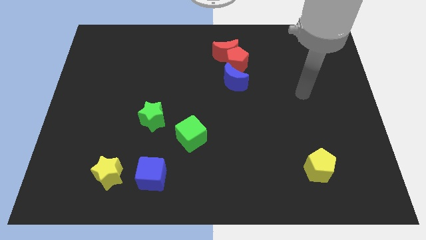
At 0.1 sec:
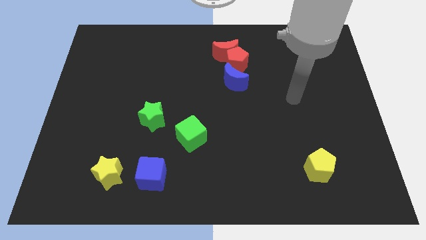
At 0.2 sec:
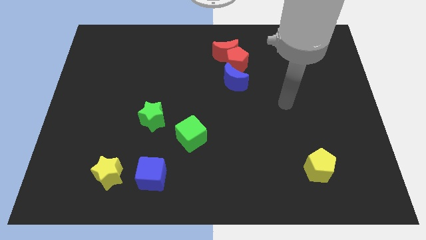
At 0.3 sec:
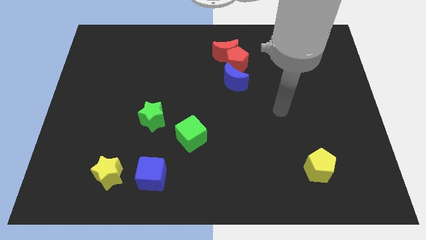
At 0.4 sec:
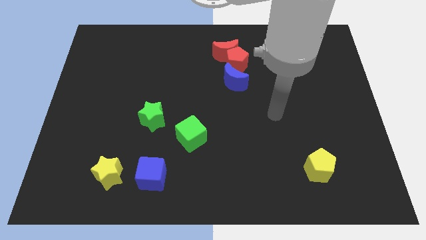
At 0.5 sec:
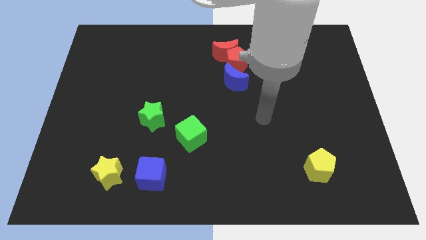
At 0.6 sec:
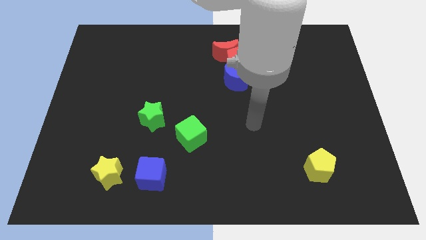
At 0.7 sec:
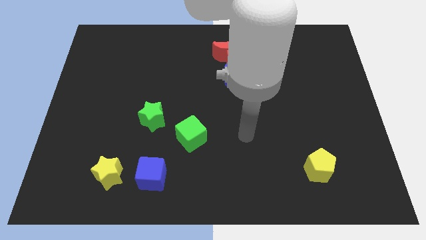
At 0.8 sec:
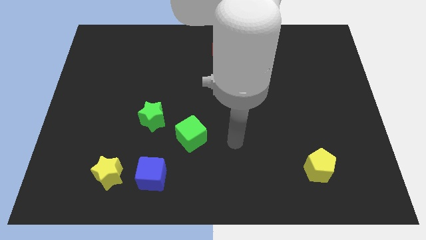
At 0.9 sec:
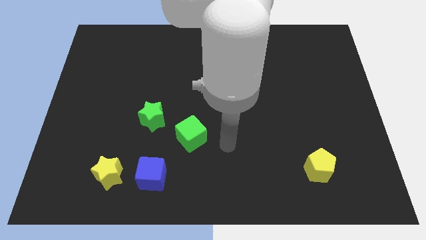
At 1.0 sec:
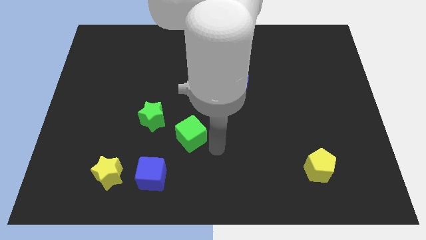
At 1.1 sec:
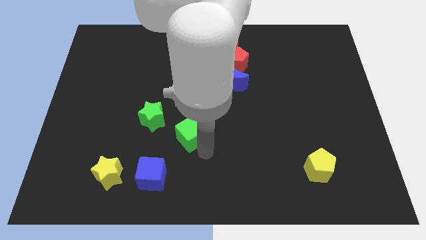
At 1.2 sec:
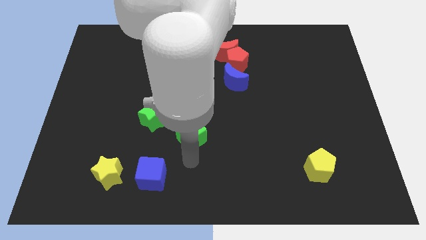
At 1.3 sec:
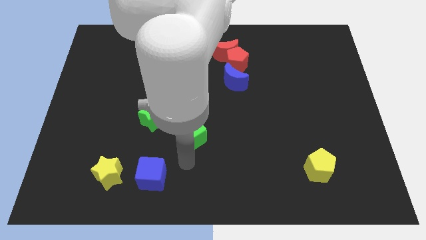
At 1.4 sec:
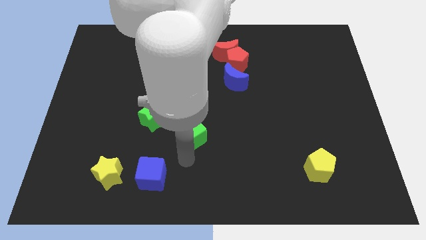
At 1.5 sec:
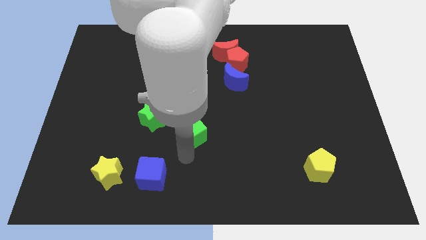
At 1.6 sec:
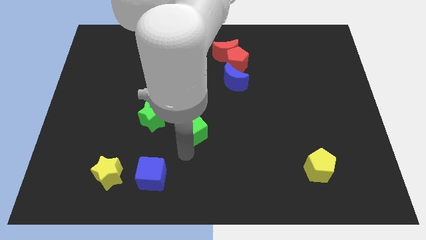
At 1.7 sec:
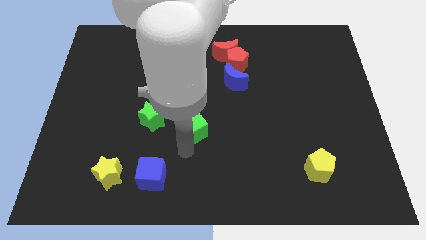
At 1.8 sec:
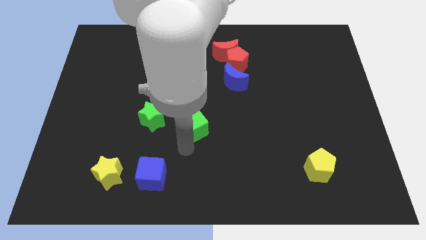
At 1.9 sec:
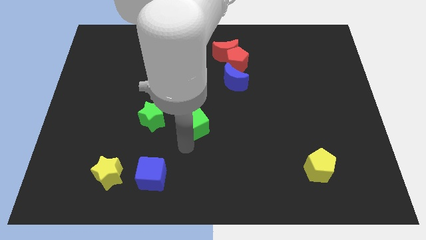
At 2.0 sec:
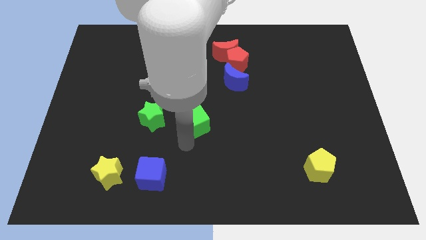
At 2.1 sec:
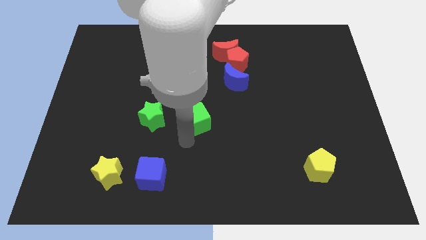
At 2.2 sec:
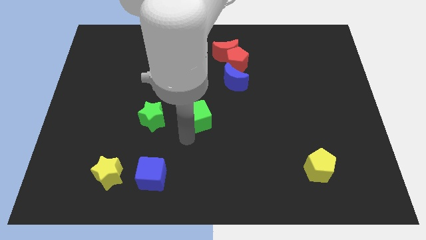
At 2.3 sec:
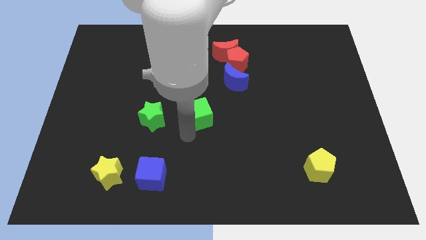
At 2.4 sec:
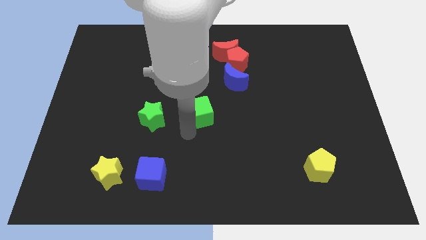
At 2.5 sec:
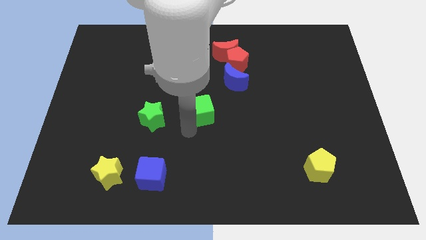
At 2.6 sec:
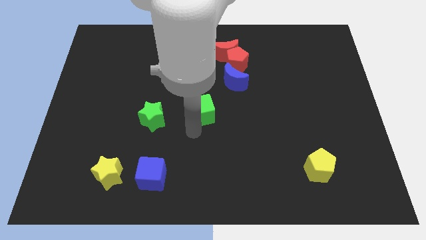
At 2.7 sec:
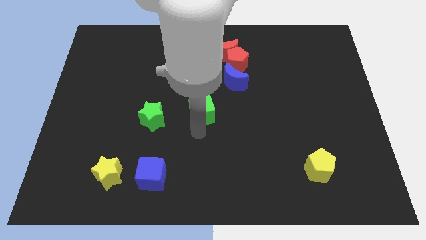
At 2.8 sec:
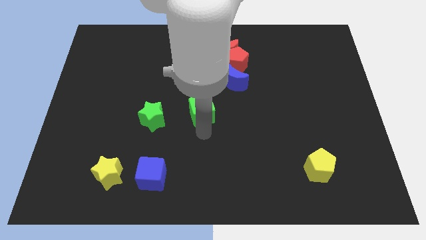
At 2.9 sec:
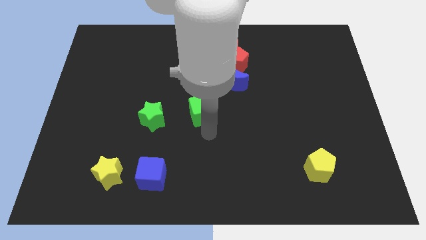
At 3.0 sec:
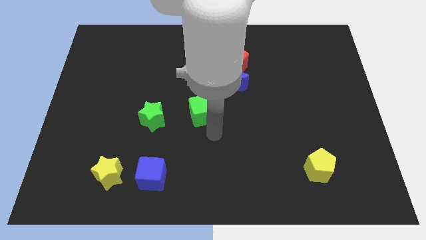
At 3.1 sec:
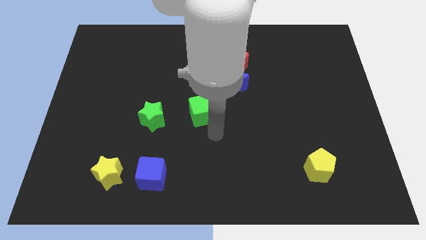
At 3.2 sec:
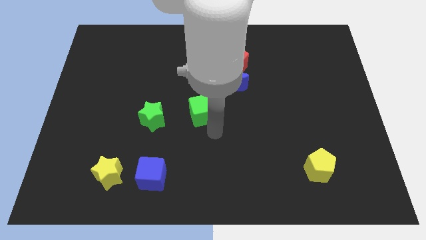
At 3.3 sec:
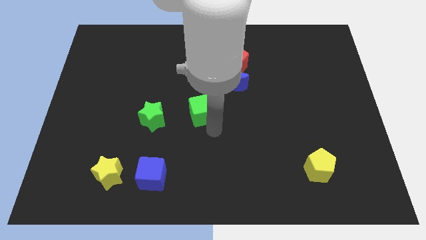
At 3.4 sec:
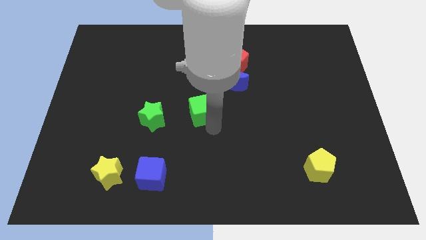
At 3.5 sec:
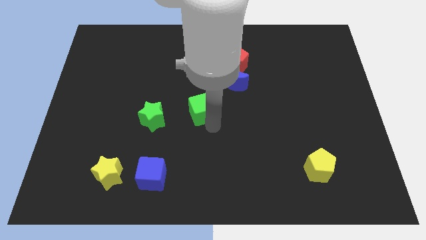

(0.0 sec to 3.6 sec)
move the green cube up slightly

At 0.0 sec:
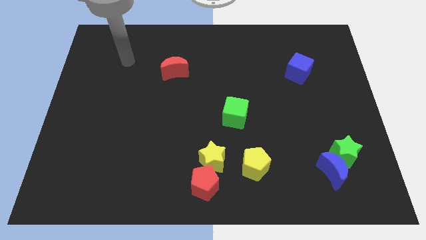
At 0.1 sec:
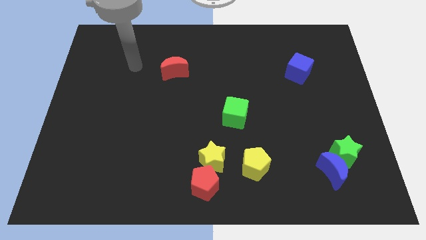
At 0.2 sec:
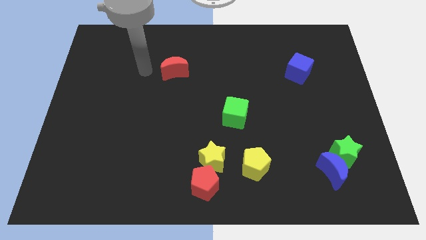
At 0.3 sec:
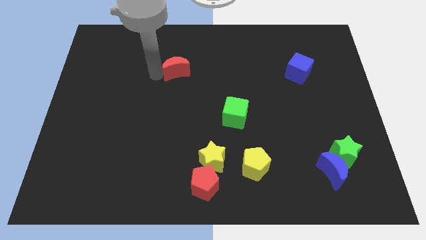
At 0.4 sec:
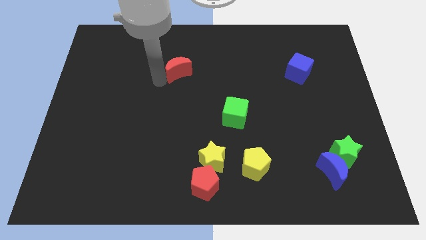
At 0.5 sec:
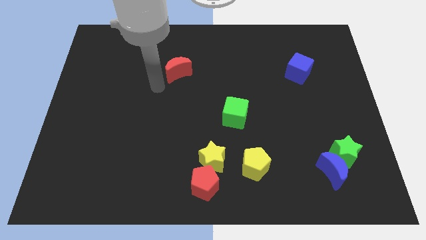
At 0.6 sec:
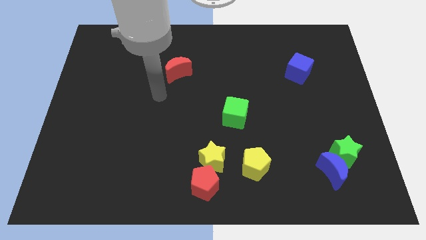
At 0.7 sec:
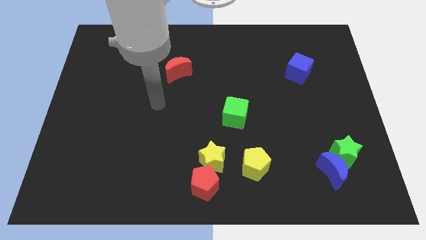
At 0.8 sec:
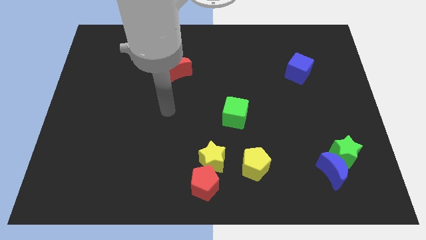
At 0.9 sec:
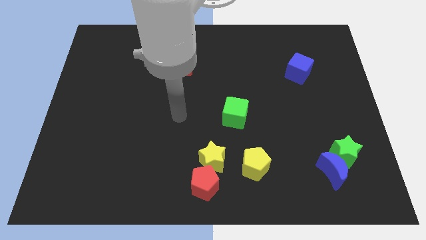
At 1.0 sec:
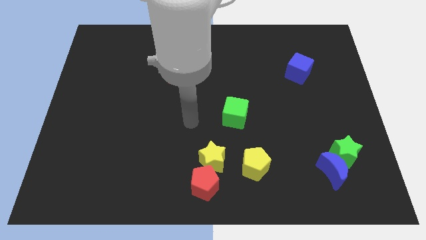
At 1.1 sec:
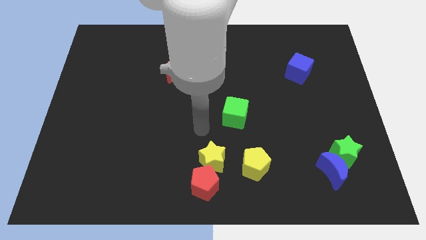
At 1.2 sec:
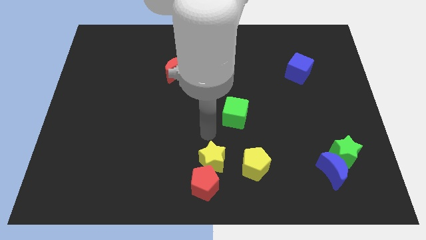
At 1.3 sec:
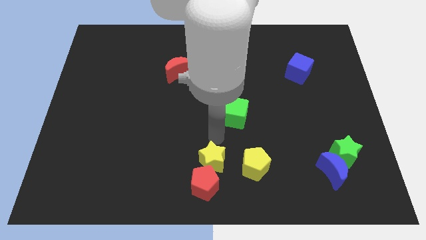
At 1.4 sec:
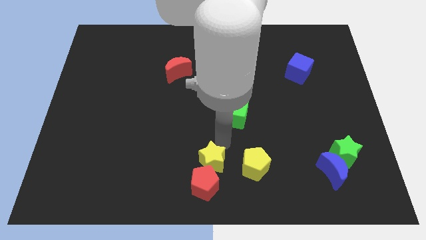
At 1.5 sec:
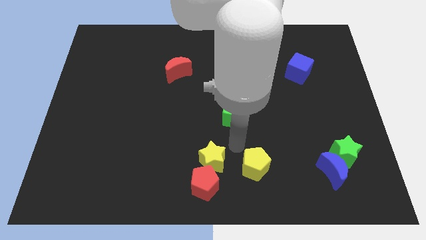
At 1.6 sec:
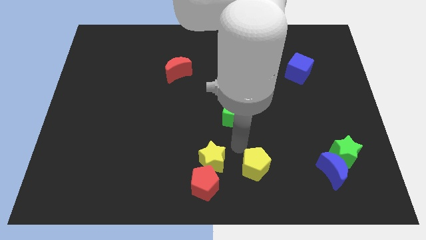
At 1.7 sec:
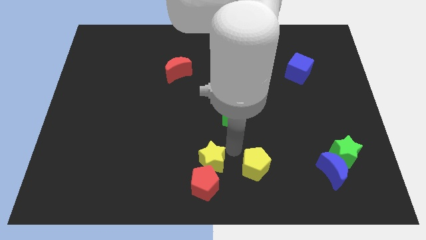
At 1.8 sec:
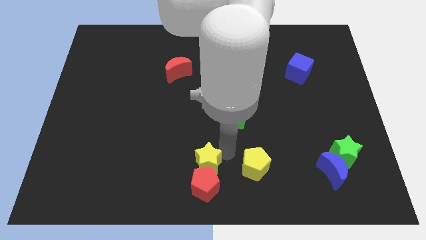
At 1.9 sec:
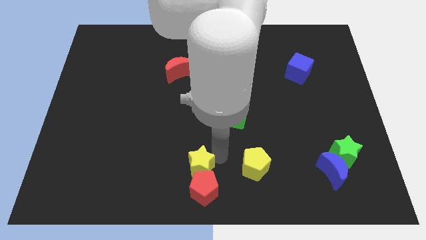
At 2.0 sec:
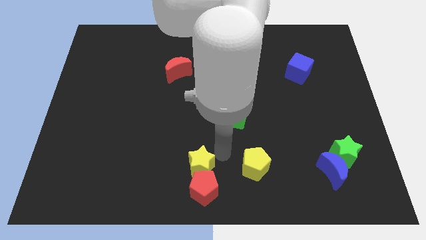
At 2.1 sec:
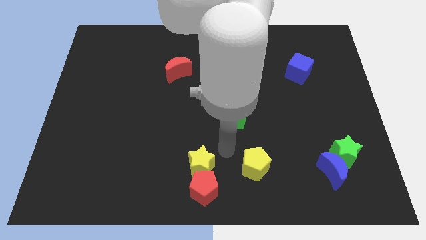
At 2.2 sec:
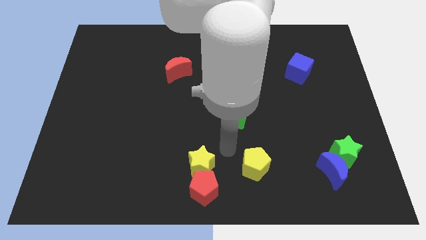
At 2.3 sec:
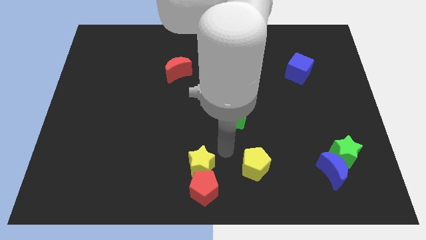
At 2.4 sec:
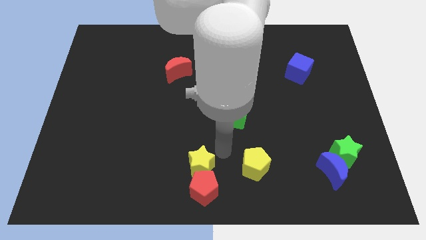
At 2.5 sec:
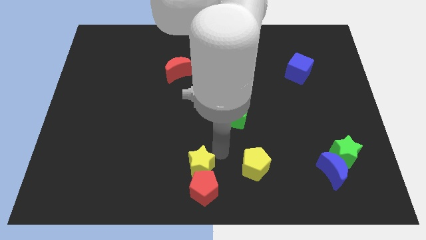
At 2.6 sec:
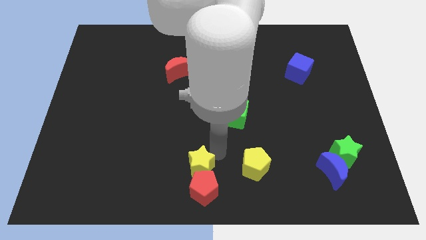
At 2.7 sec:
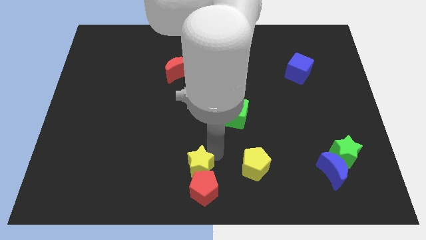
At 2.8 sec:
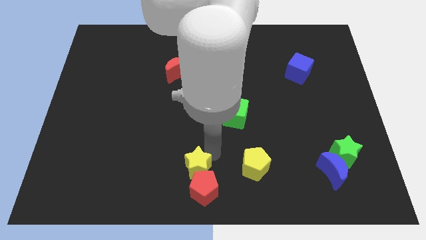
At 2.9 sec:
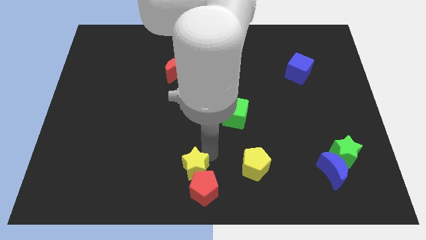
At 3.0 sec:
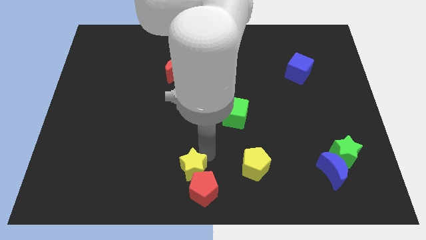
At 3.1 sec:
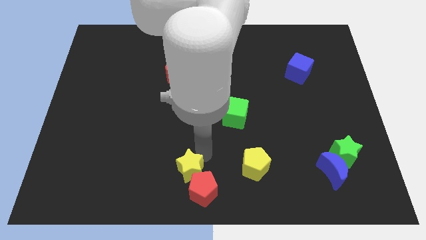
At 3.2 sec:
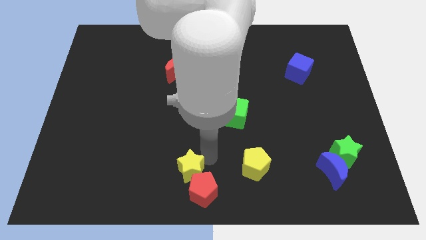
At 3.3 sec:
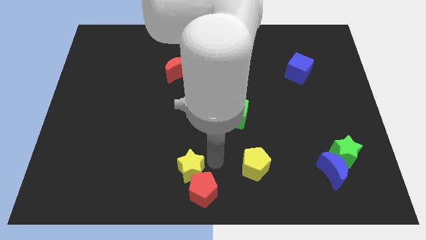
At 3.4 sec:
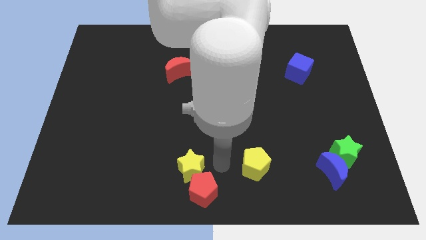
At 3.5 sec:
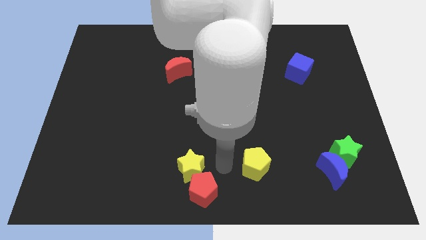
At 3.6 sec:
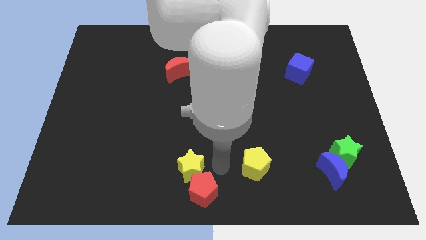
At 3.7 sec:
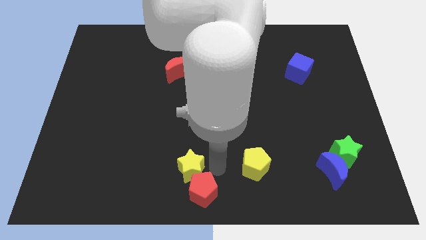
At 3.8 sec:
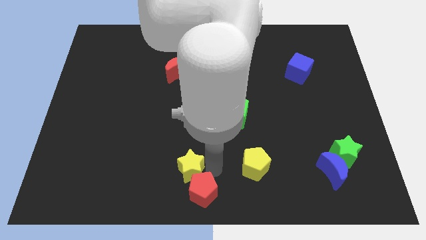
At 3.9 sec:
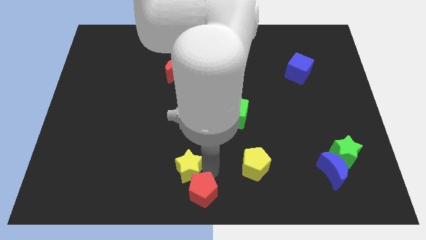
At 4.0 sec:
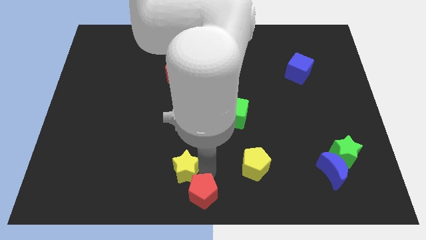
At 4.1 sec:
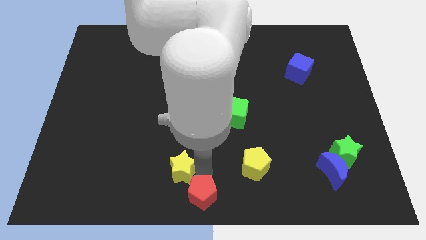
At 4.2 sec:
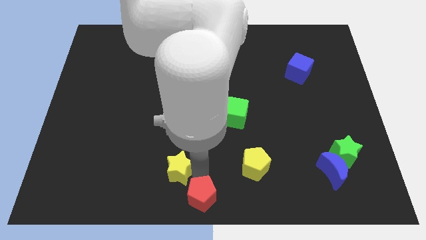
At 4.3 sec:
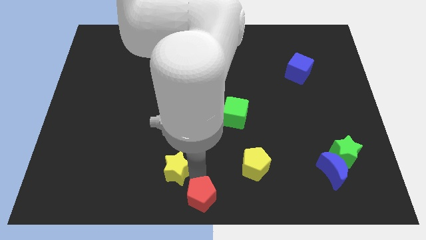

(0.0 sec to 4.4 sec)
slide the yellow star to the left slightly
